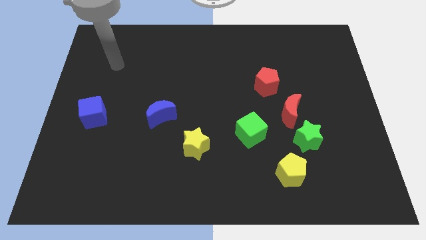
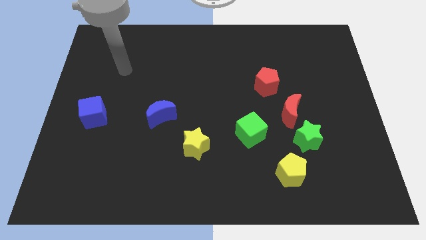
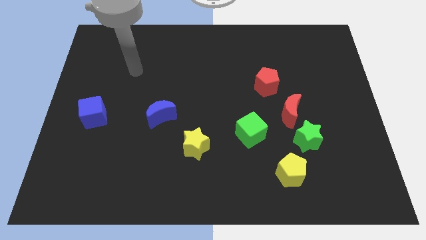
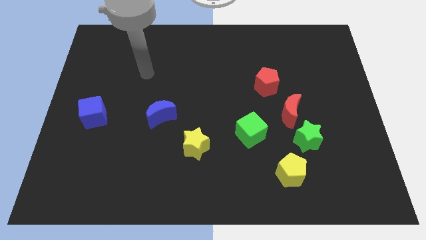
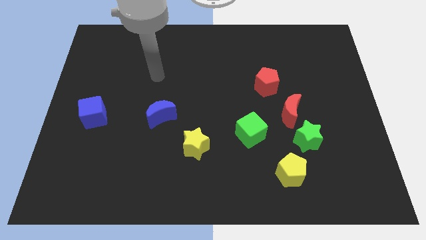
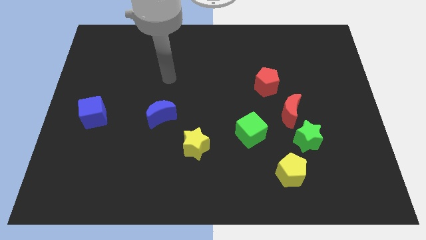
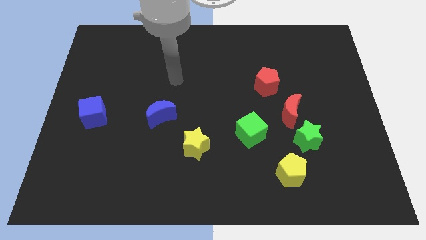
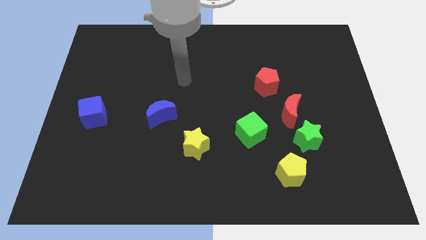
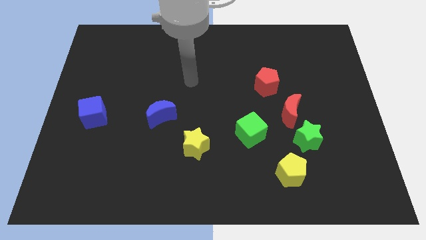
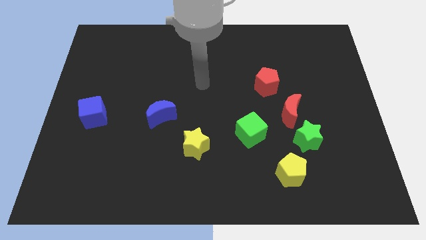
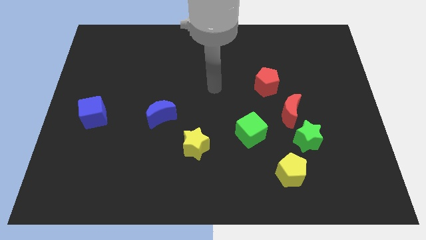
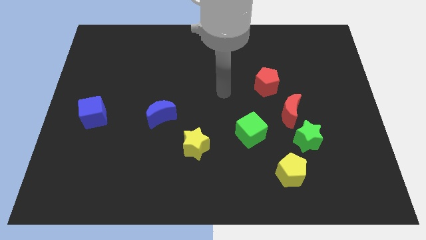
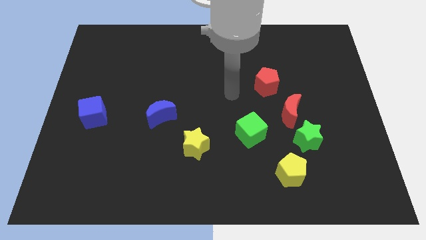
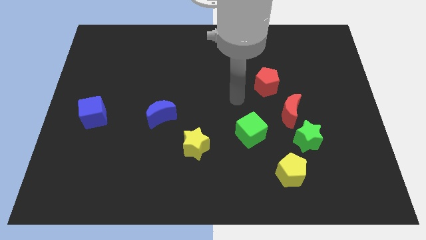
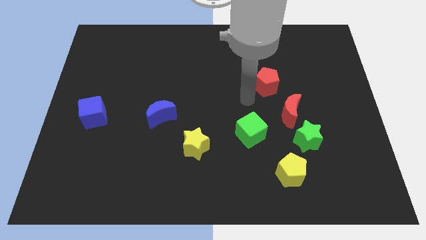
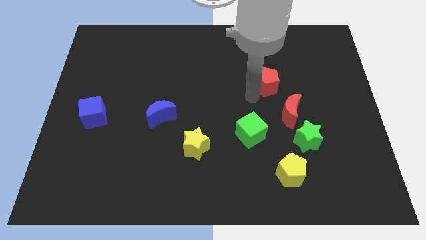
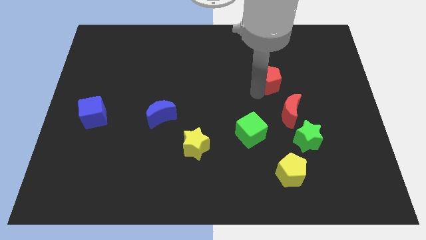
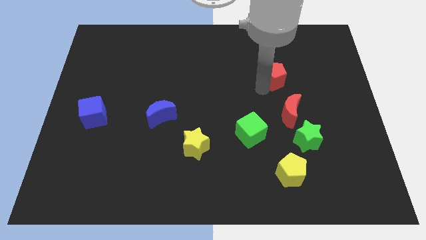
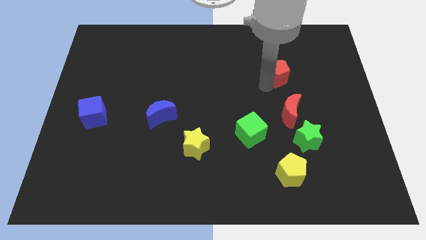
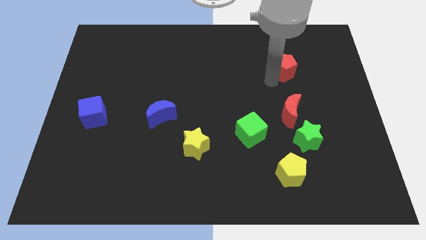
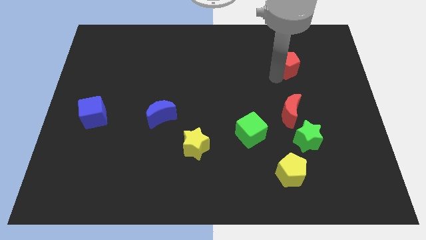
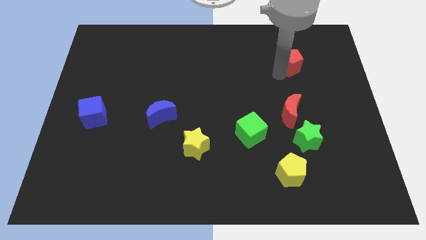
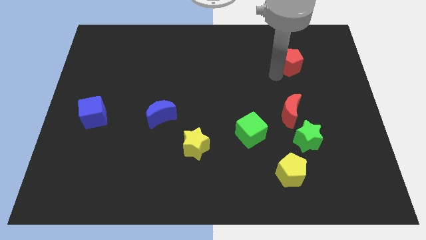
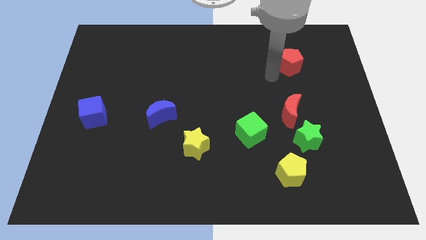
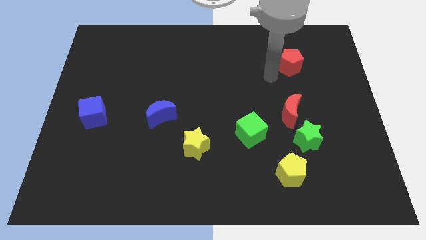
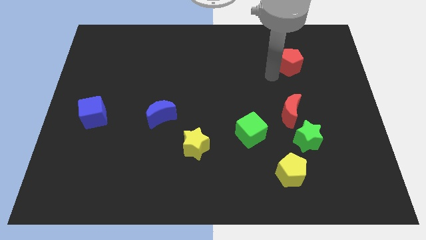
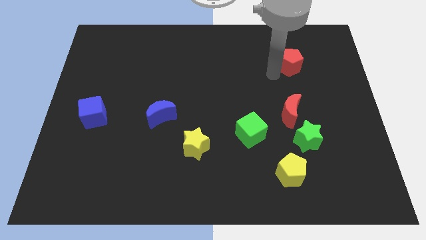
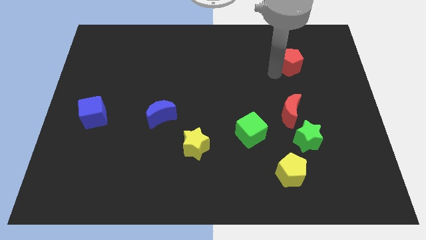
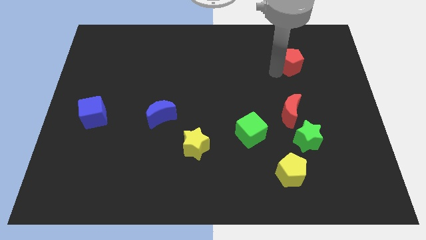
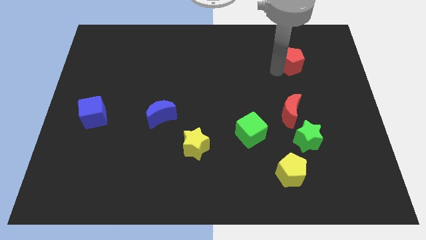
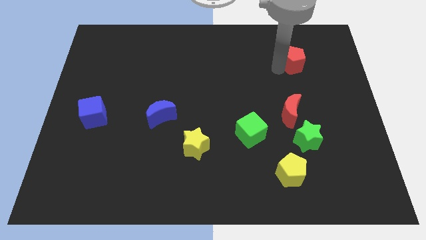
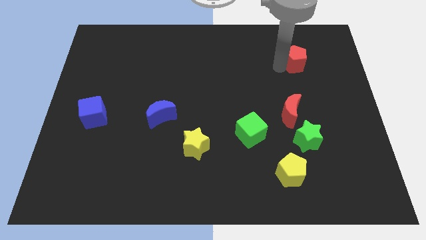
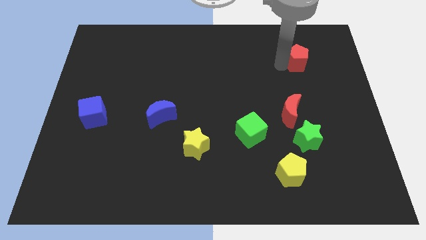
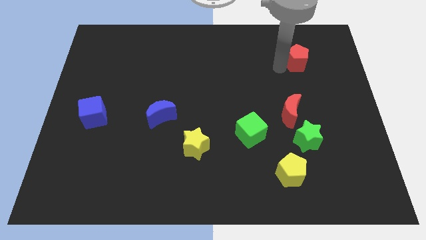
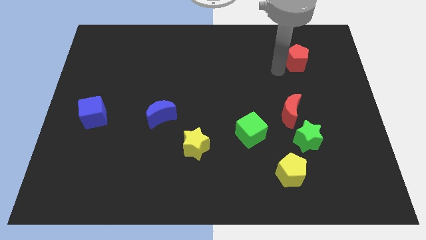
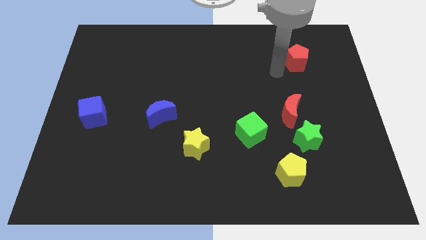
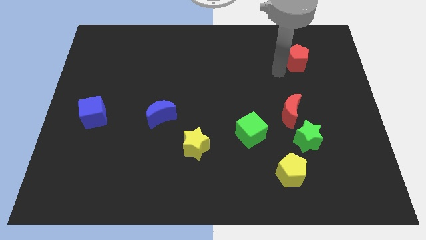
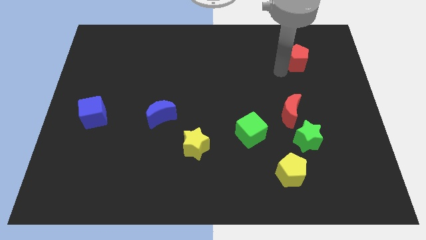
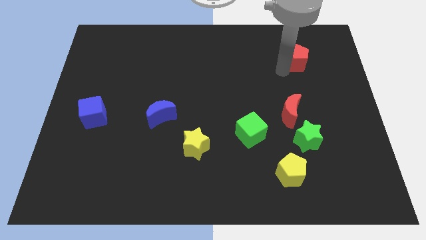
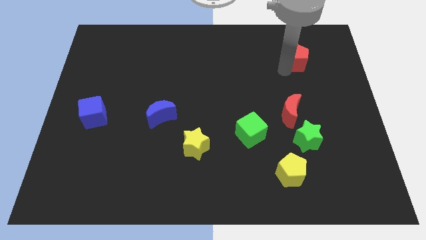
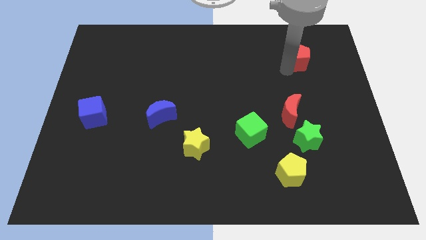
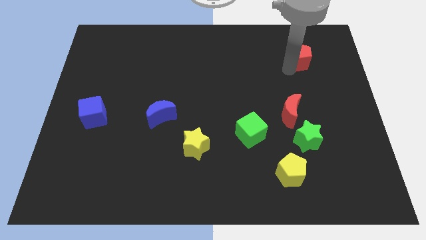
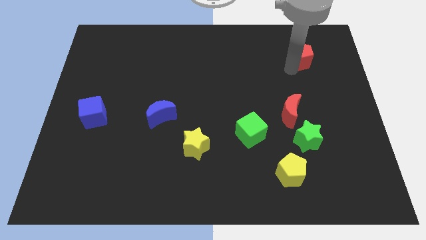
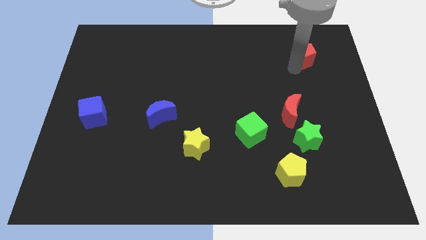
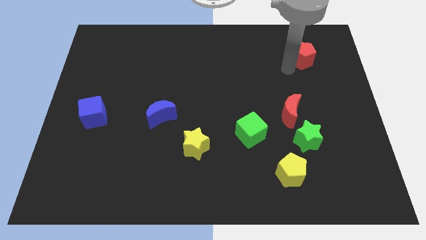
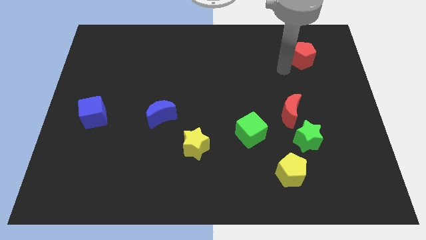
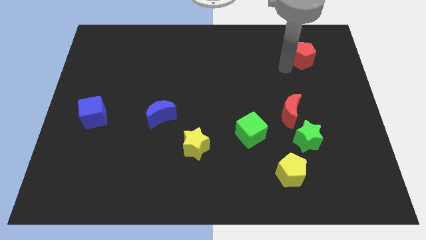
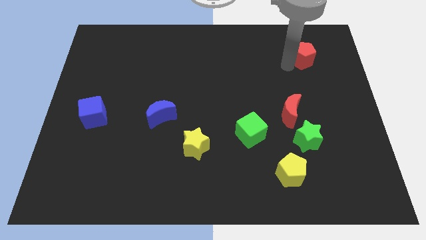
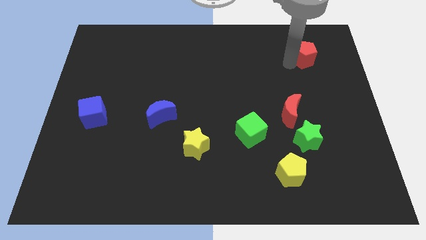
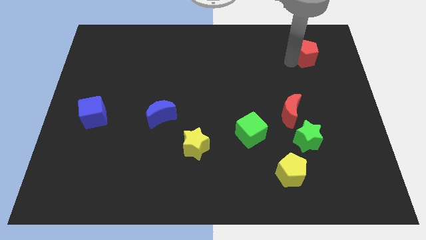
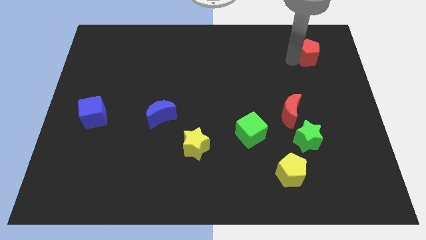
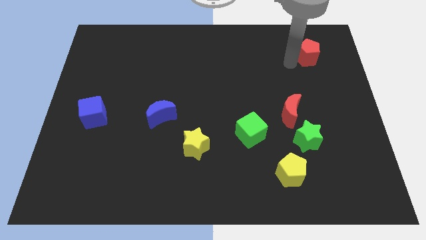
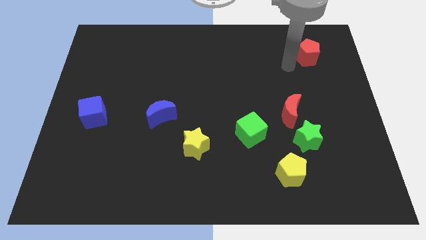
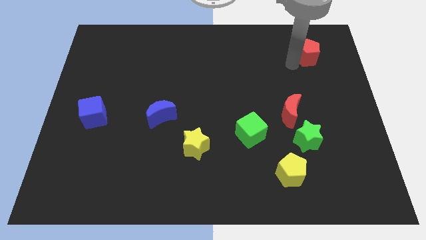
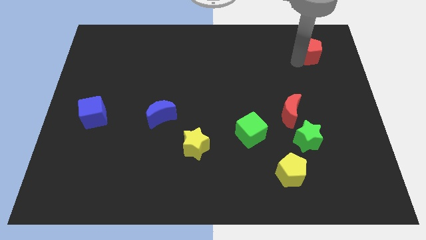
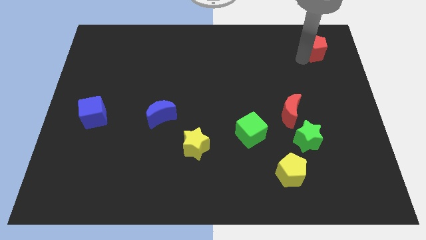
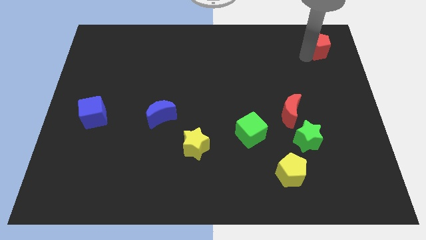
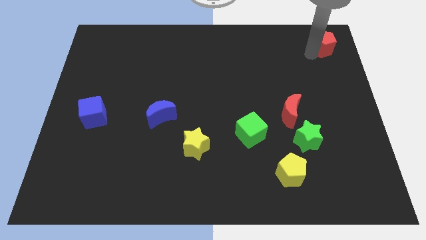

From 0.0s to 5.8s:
move the red pentagon to the top right of the board

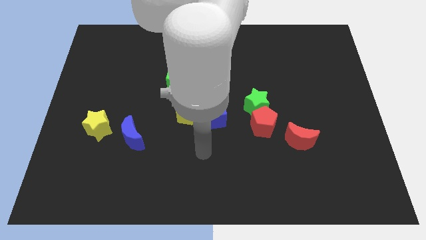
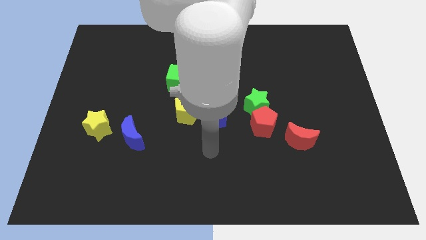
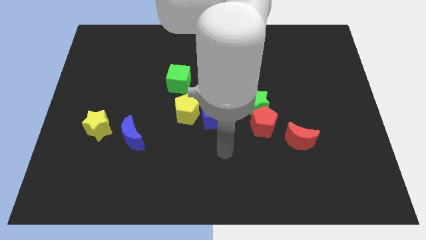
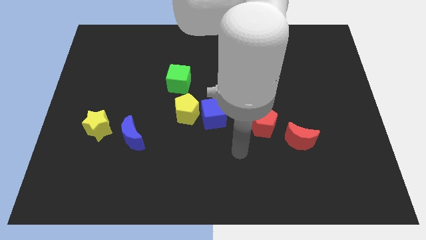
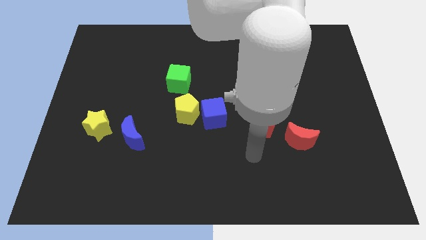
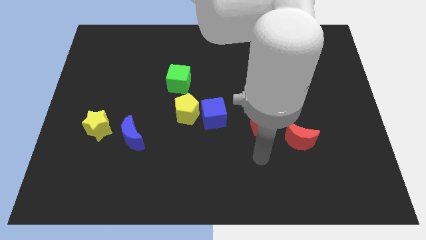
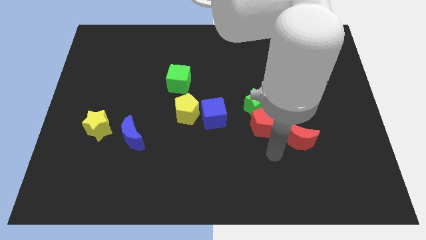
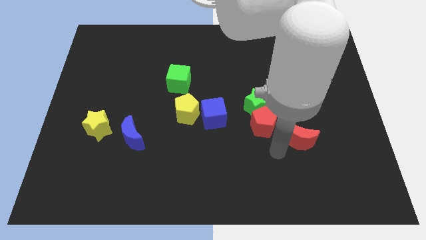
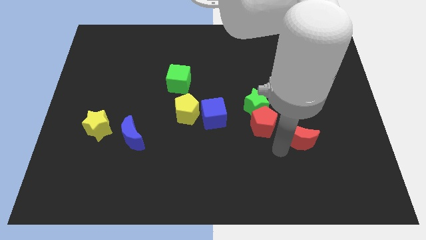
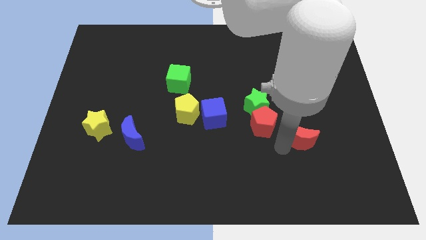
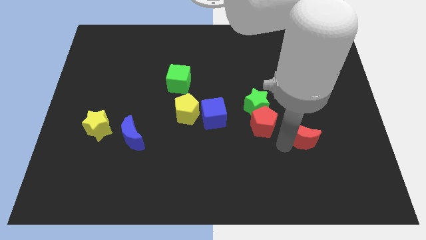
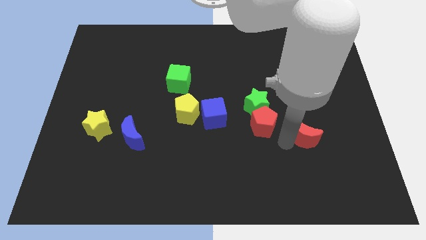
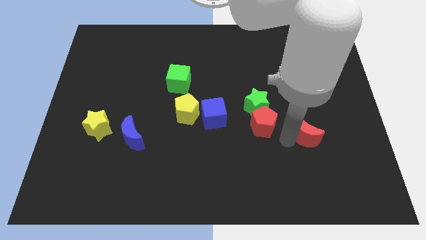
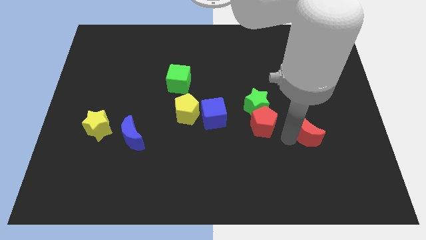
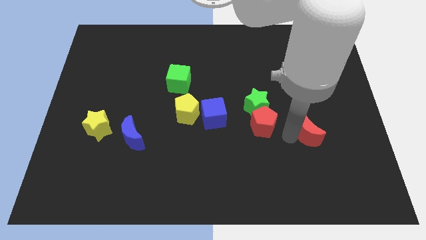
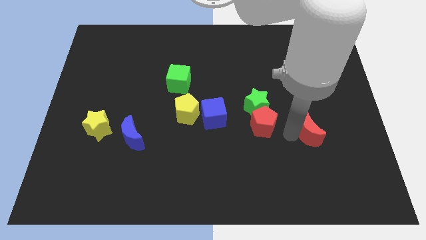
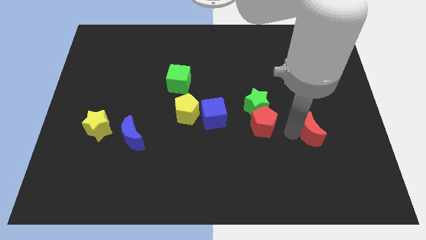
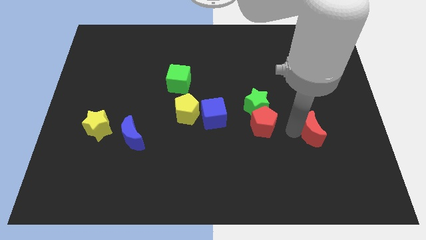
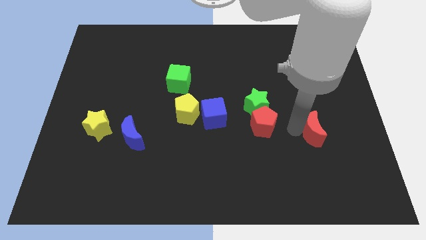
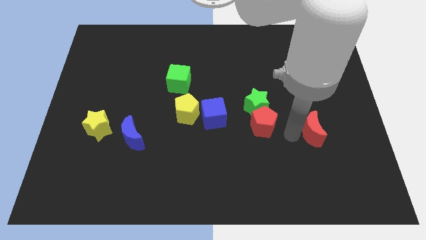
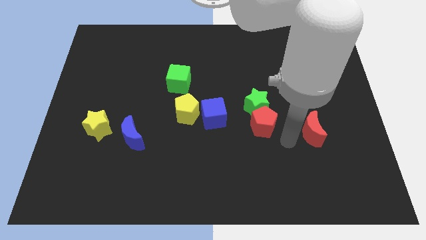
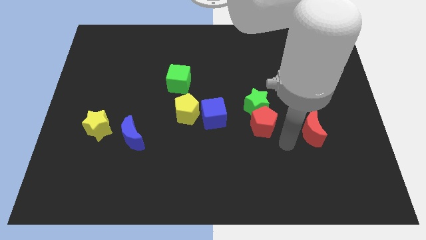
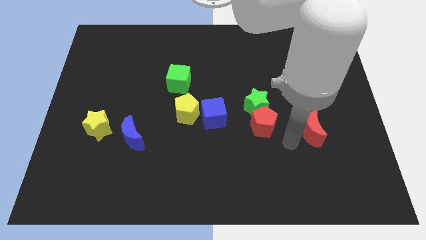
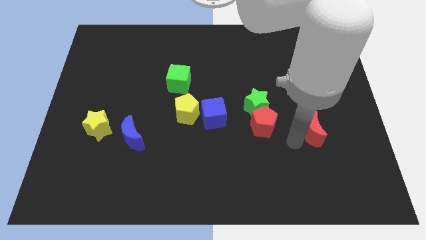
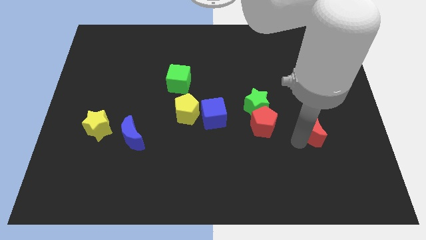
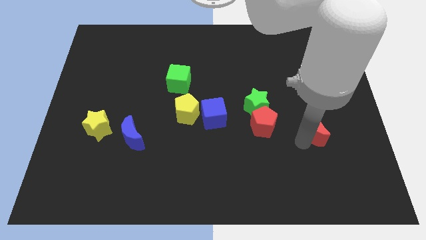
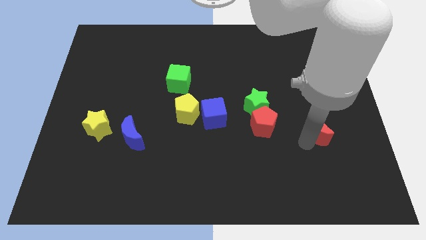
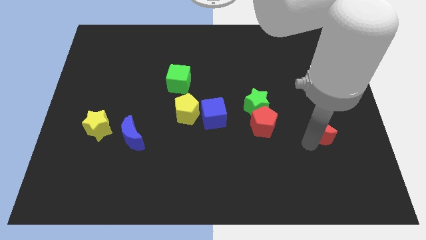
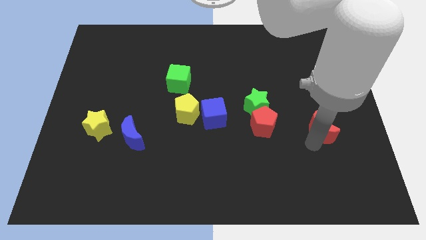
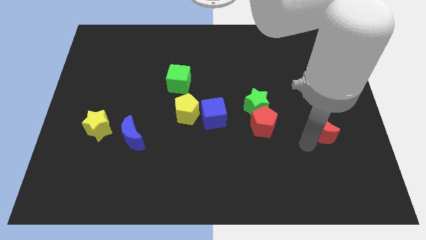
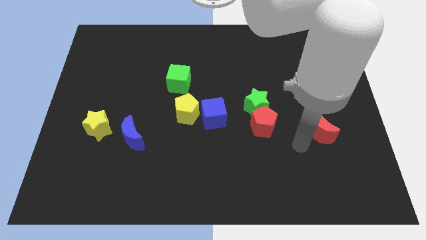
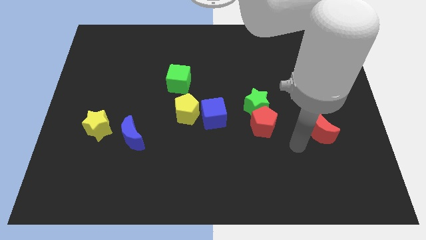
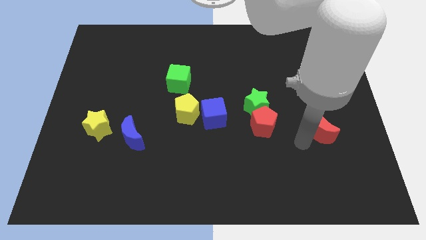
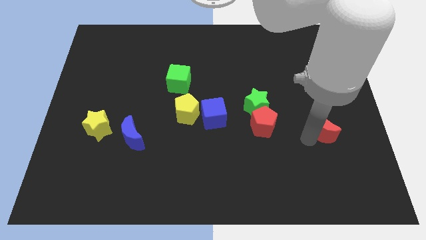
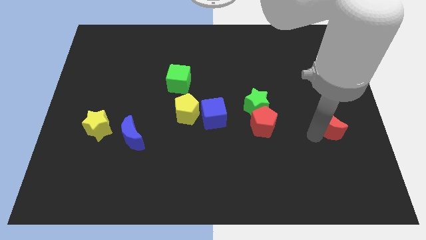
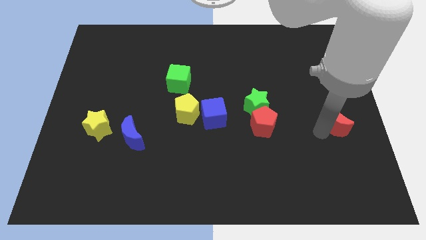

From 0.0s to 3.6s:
push the red moon to the center right
